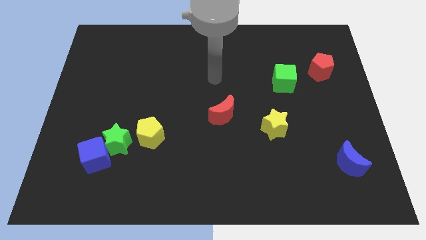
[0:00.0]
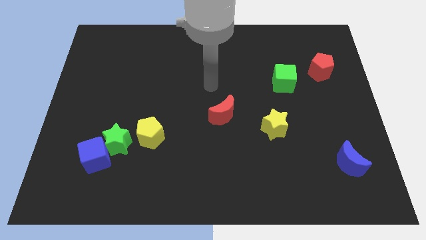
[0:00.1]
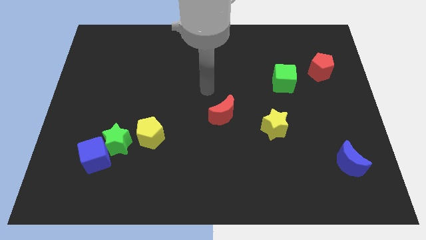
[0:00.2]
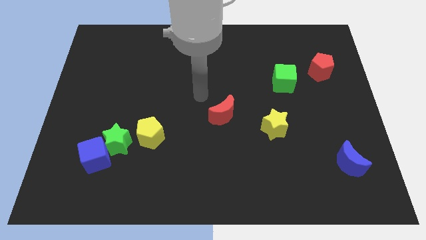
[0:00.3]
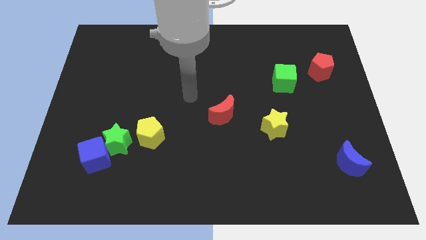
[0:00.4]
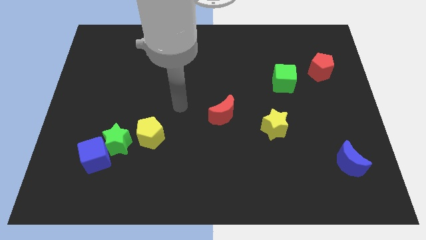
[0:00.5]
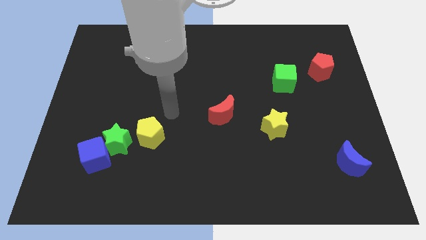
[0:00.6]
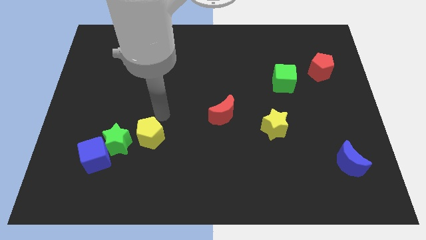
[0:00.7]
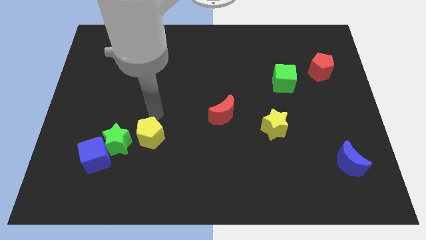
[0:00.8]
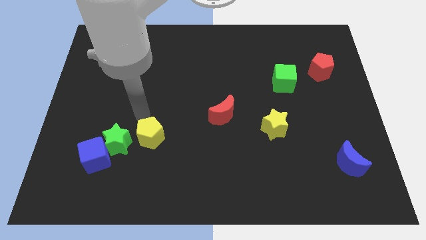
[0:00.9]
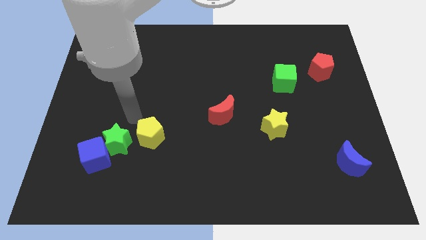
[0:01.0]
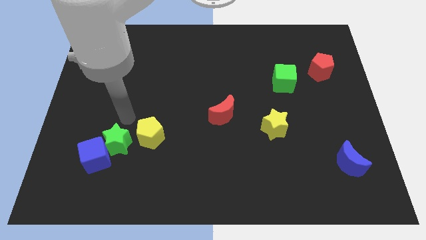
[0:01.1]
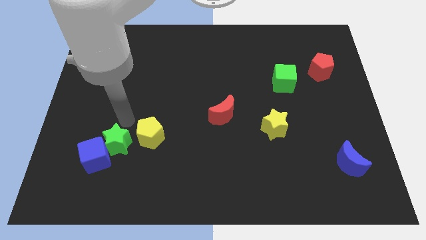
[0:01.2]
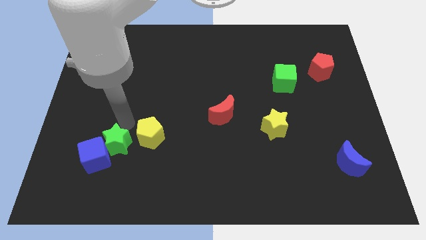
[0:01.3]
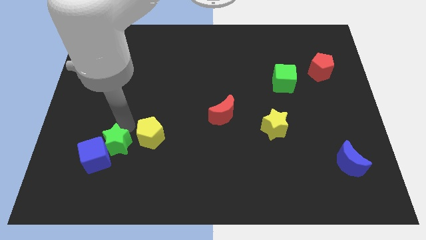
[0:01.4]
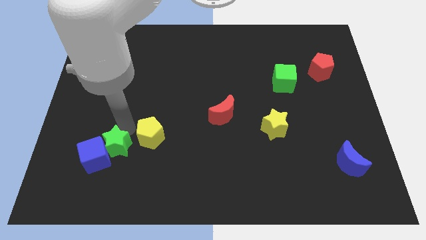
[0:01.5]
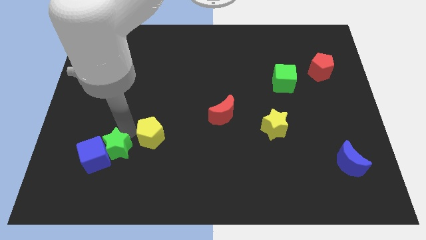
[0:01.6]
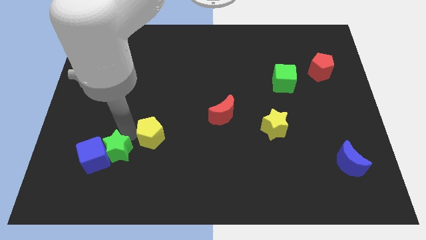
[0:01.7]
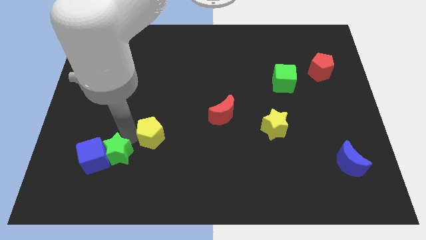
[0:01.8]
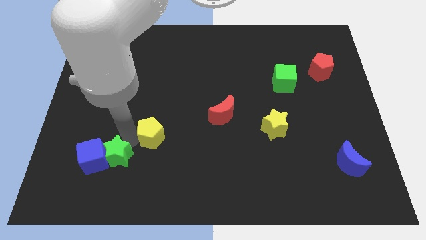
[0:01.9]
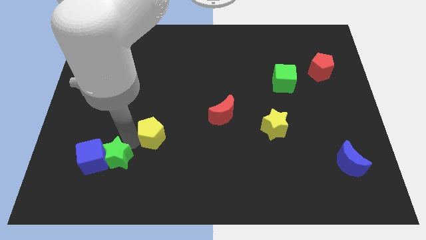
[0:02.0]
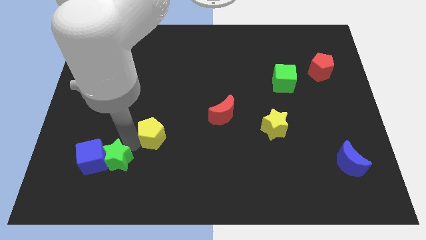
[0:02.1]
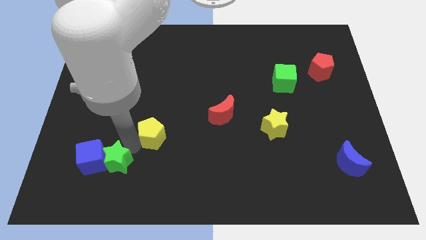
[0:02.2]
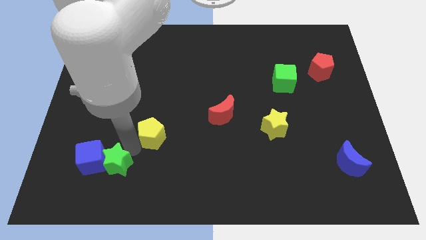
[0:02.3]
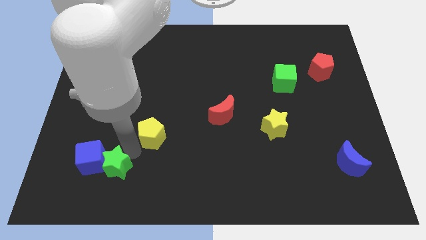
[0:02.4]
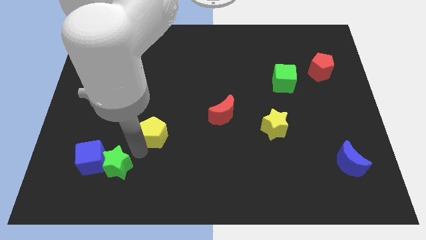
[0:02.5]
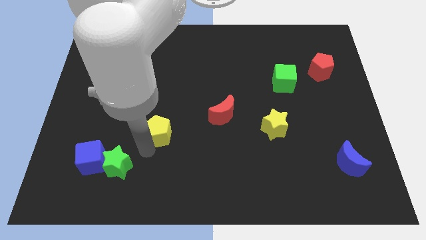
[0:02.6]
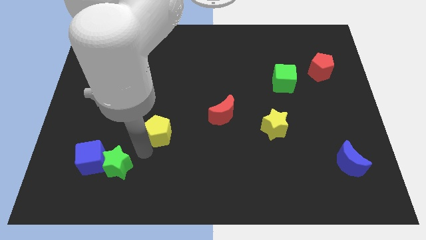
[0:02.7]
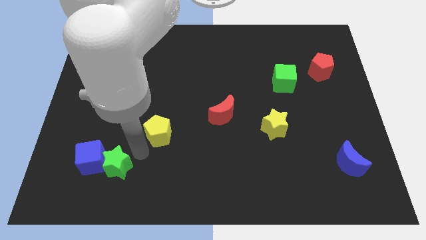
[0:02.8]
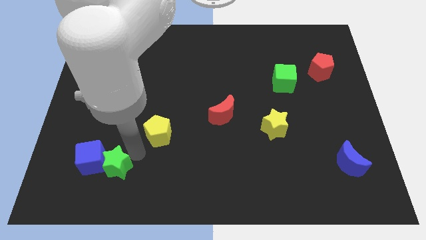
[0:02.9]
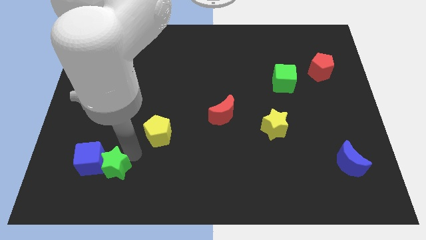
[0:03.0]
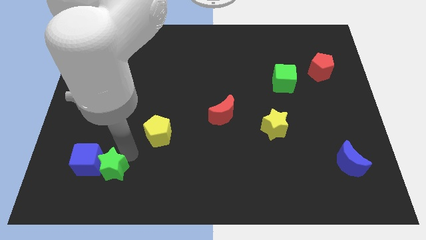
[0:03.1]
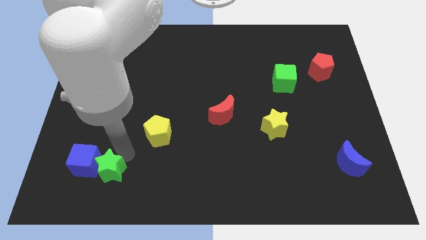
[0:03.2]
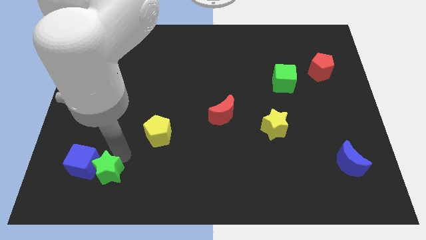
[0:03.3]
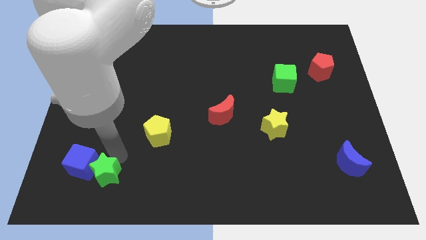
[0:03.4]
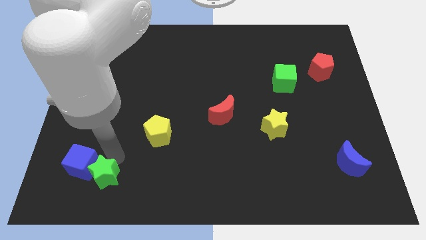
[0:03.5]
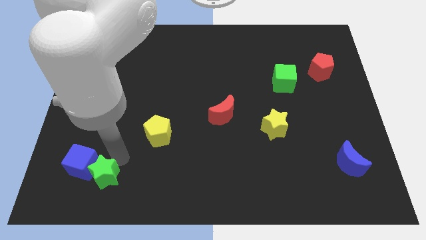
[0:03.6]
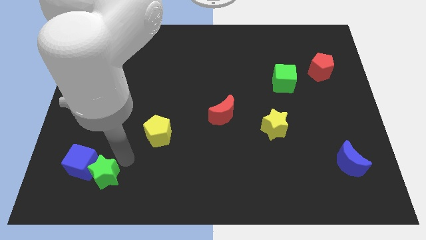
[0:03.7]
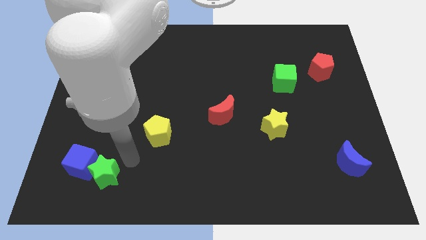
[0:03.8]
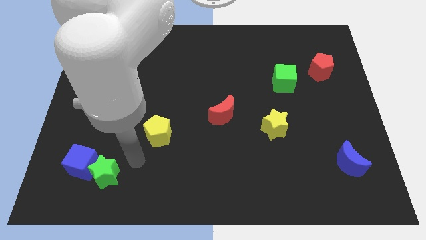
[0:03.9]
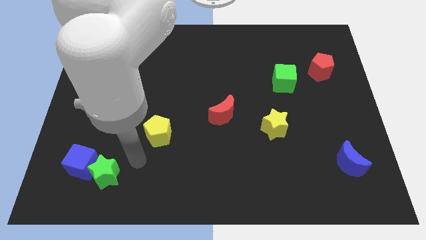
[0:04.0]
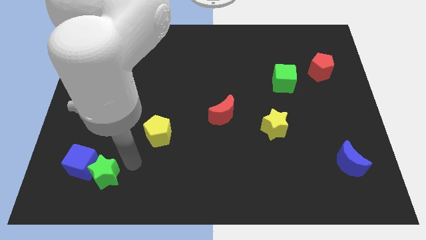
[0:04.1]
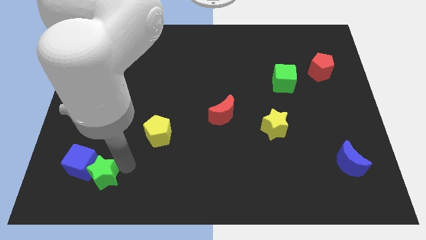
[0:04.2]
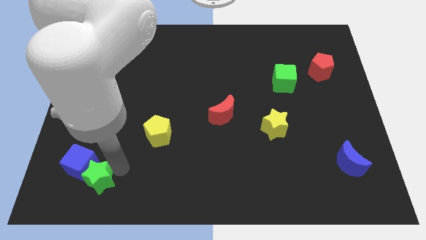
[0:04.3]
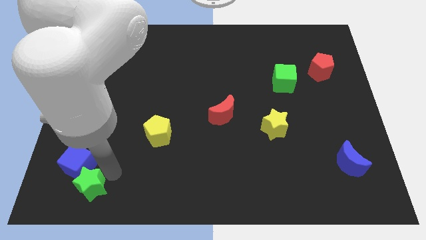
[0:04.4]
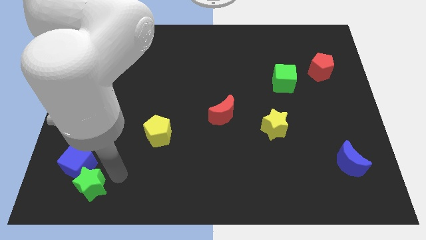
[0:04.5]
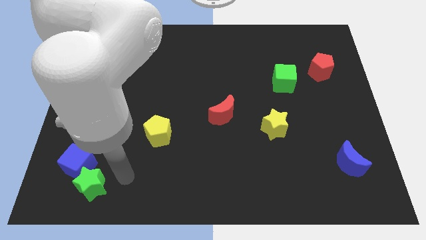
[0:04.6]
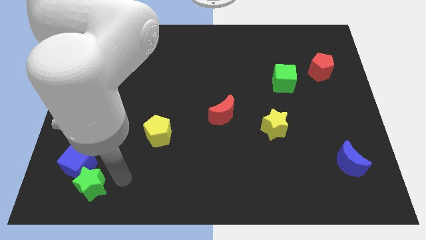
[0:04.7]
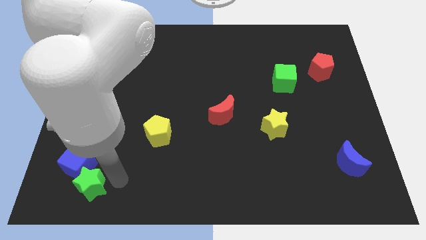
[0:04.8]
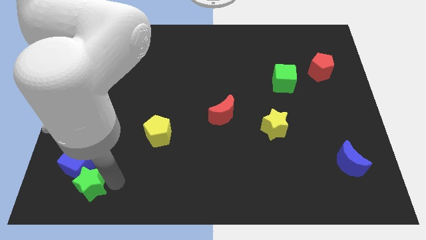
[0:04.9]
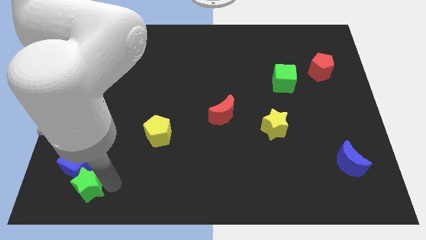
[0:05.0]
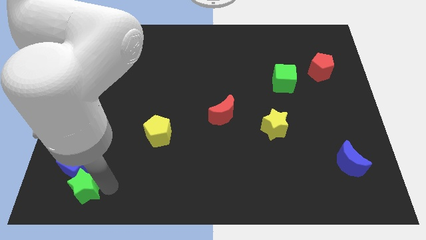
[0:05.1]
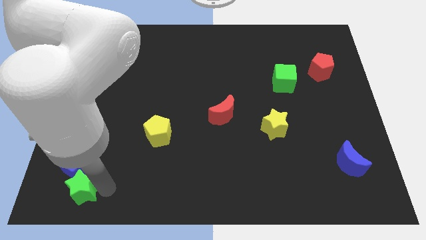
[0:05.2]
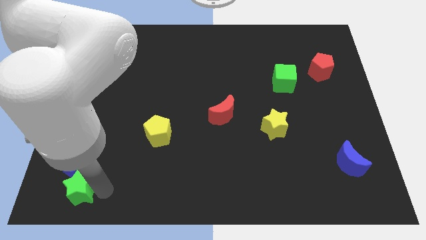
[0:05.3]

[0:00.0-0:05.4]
push the green star to the lower left corner

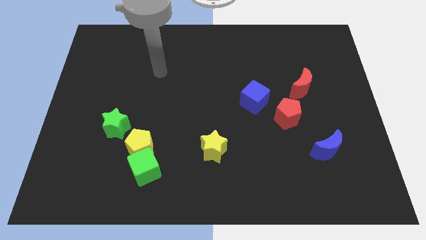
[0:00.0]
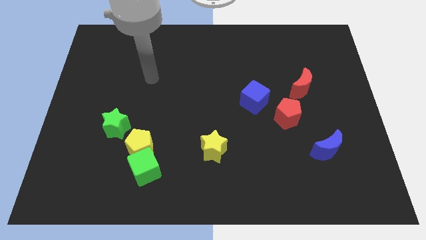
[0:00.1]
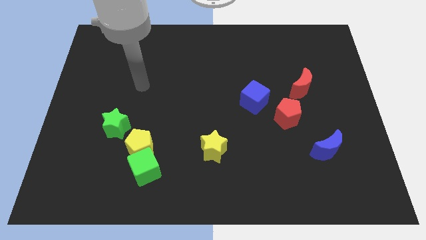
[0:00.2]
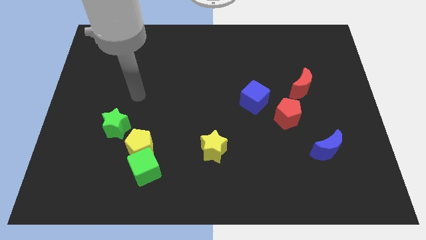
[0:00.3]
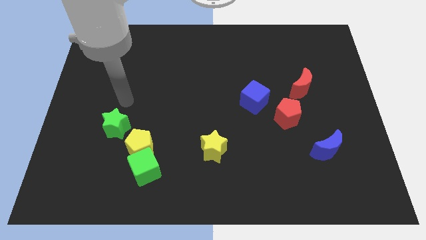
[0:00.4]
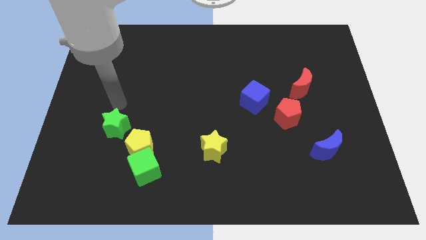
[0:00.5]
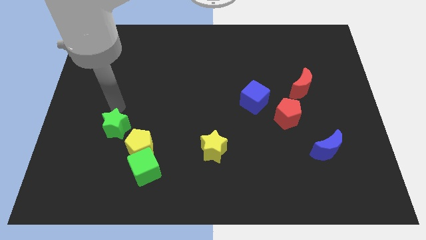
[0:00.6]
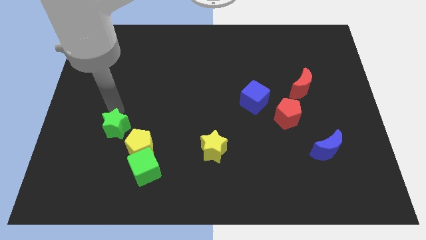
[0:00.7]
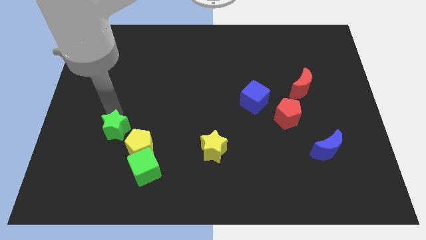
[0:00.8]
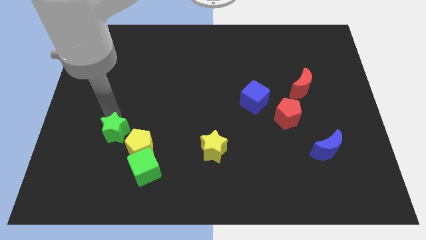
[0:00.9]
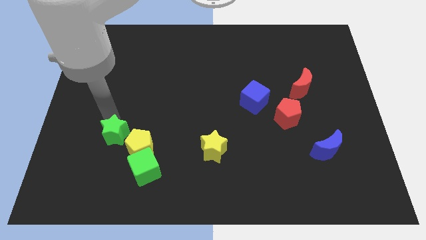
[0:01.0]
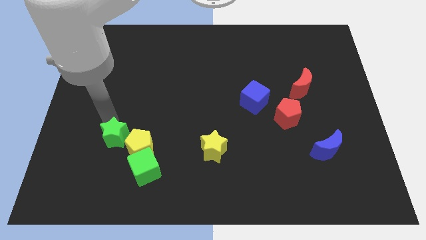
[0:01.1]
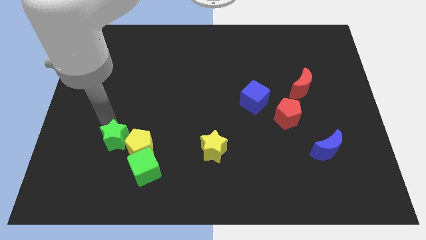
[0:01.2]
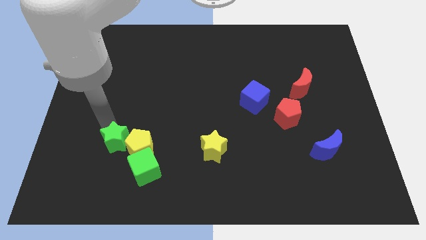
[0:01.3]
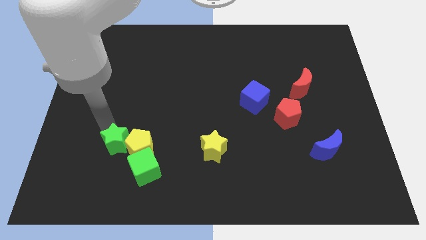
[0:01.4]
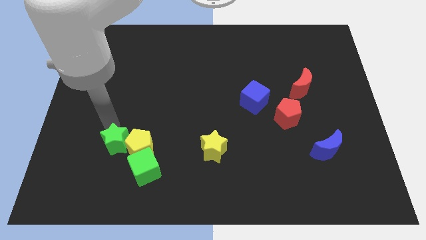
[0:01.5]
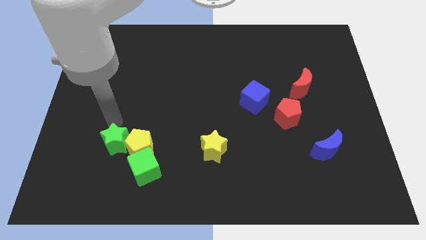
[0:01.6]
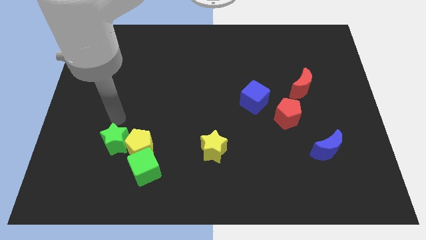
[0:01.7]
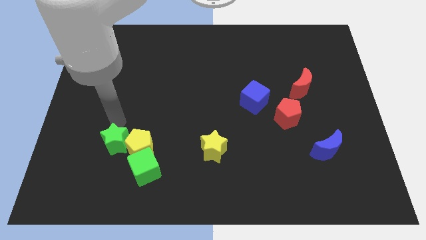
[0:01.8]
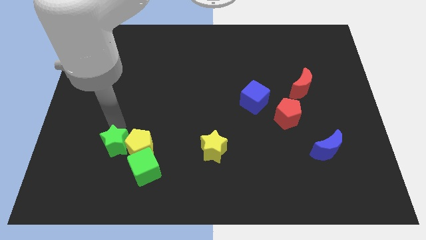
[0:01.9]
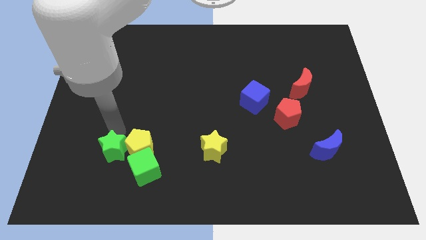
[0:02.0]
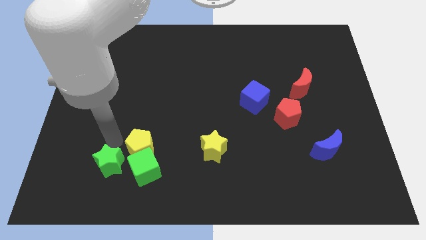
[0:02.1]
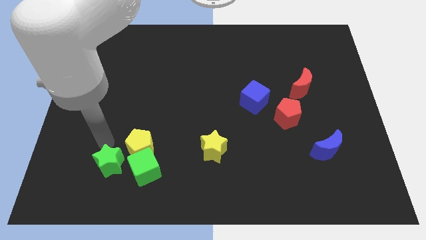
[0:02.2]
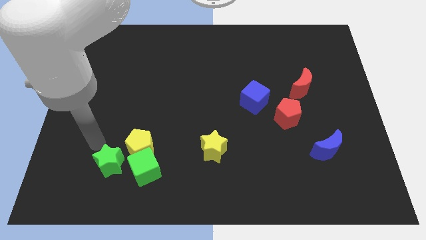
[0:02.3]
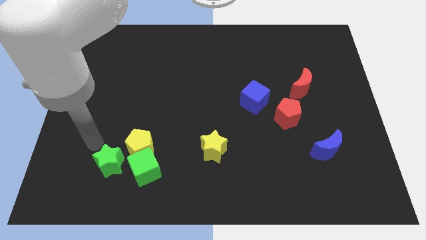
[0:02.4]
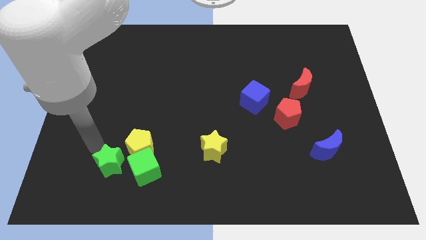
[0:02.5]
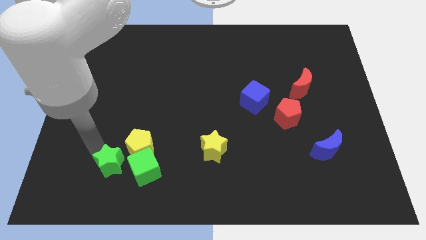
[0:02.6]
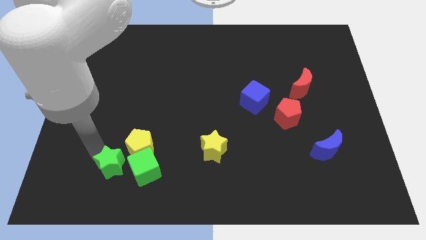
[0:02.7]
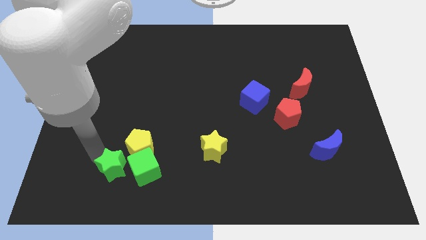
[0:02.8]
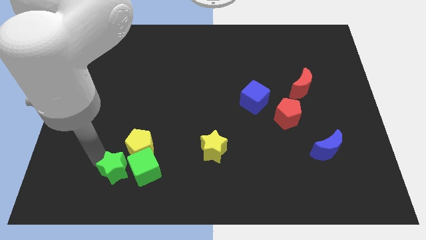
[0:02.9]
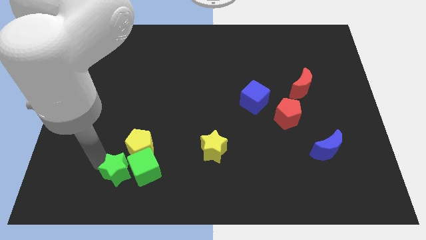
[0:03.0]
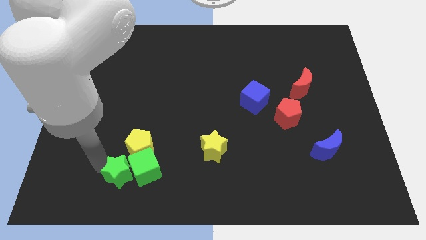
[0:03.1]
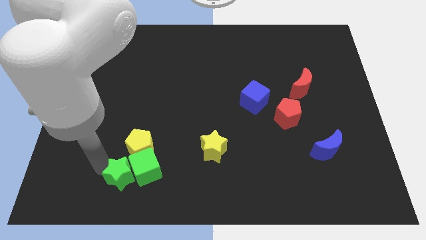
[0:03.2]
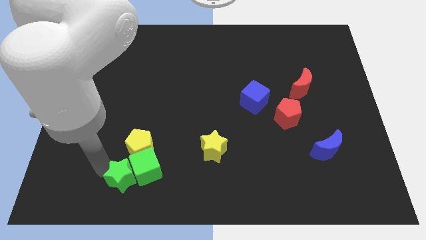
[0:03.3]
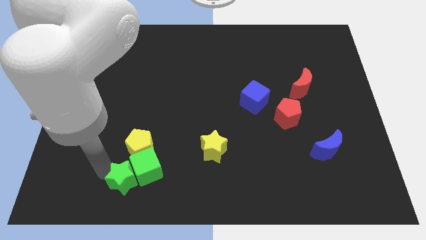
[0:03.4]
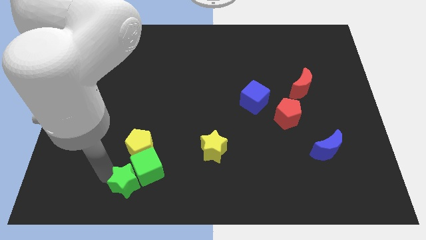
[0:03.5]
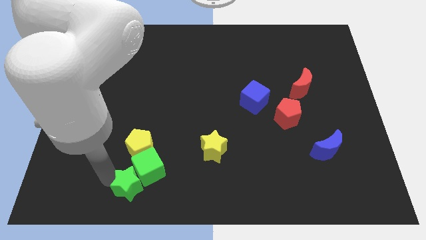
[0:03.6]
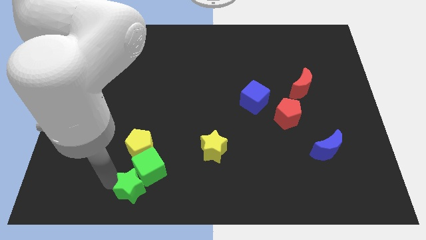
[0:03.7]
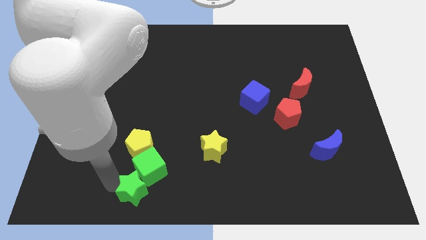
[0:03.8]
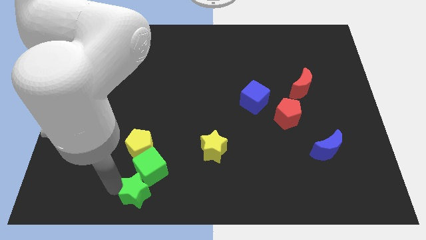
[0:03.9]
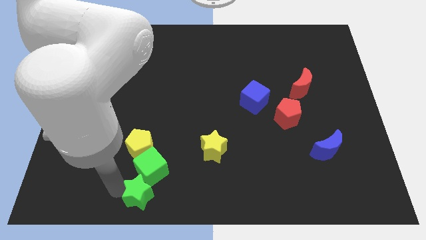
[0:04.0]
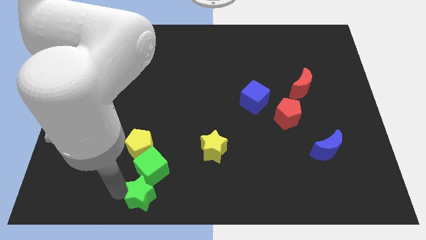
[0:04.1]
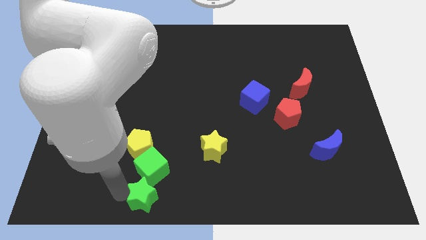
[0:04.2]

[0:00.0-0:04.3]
slide the green star to the bottom side
